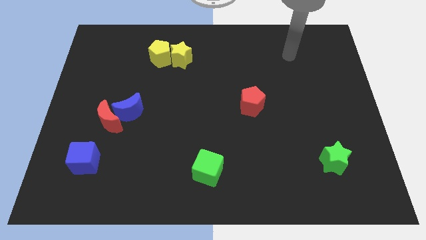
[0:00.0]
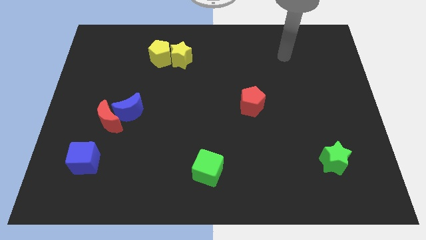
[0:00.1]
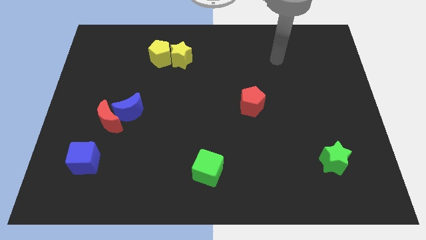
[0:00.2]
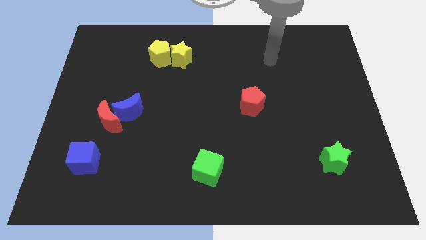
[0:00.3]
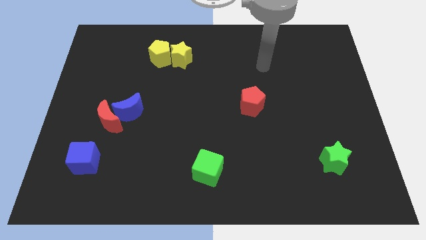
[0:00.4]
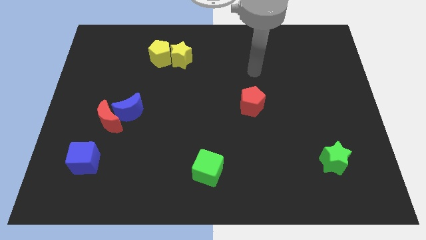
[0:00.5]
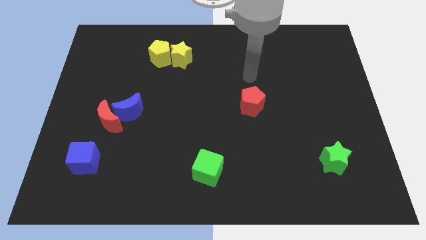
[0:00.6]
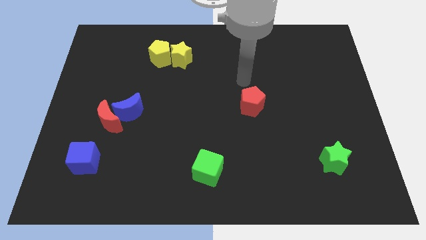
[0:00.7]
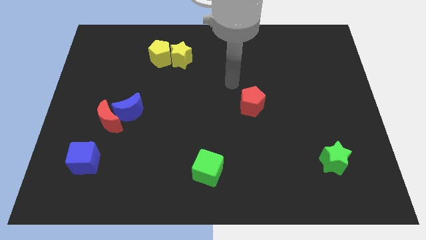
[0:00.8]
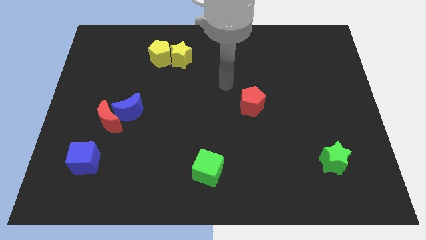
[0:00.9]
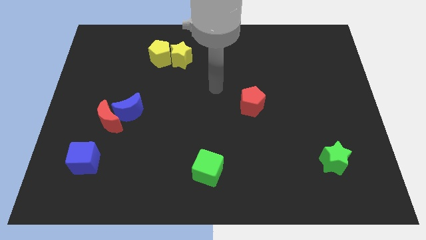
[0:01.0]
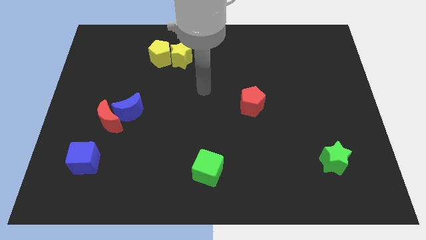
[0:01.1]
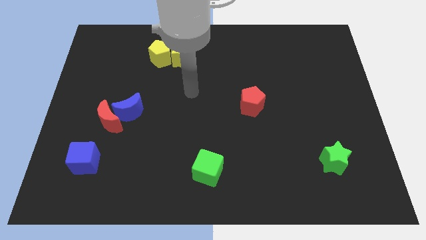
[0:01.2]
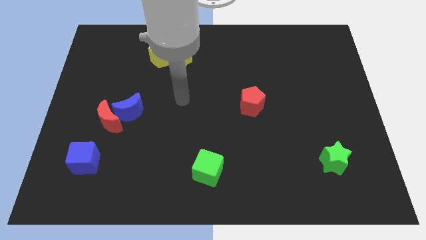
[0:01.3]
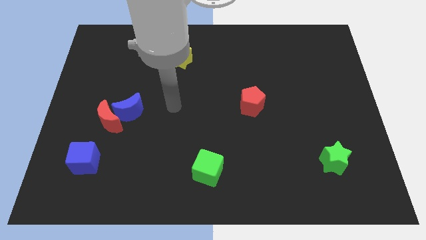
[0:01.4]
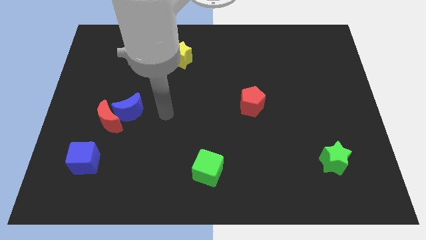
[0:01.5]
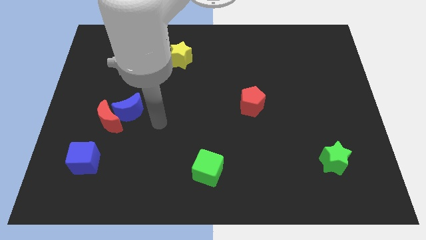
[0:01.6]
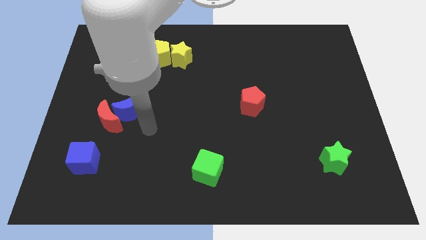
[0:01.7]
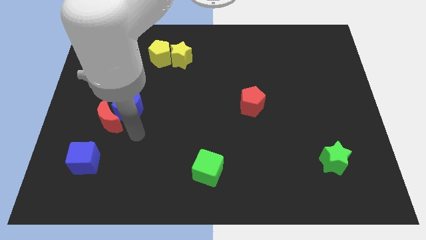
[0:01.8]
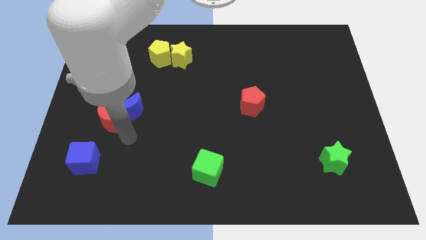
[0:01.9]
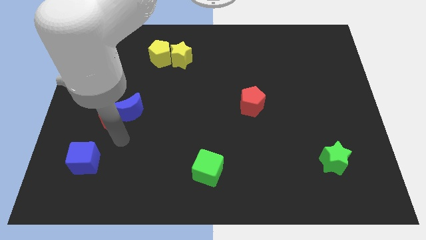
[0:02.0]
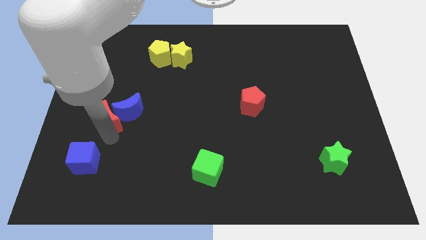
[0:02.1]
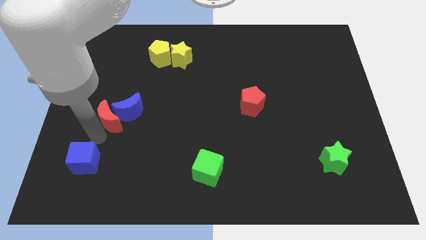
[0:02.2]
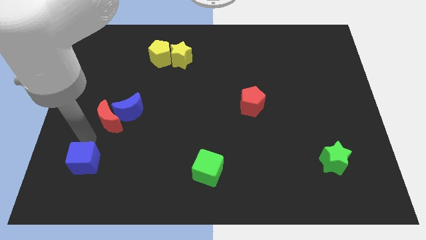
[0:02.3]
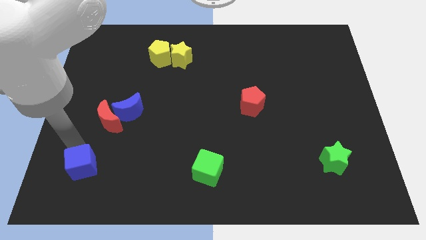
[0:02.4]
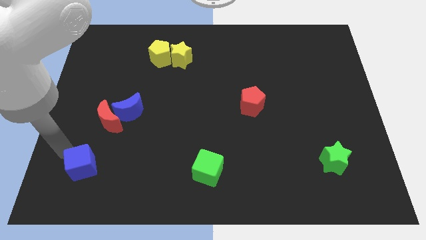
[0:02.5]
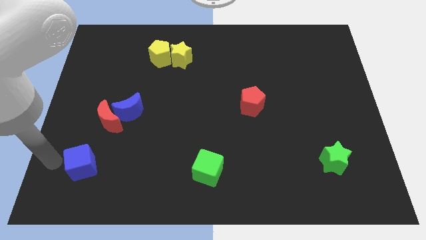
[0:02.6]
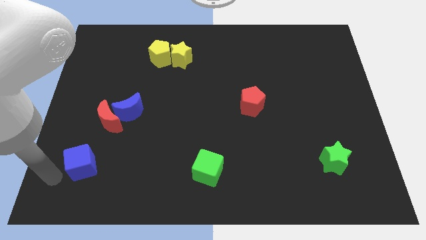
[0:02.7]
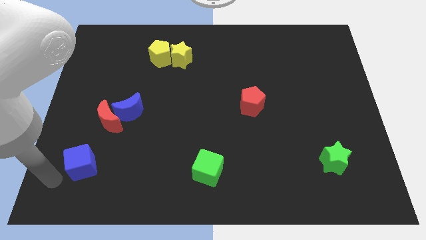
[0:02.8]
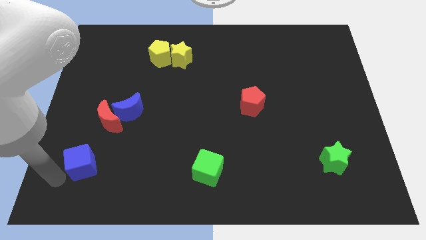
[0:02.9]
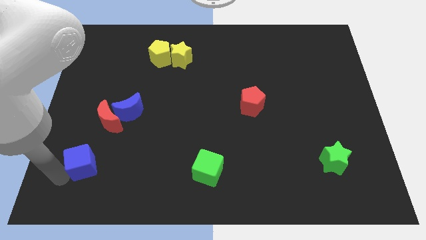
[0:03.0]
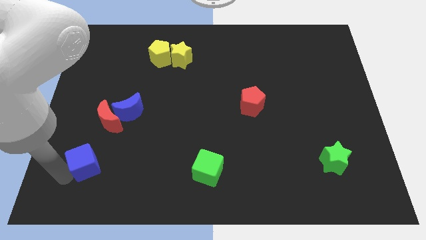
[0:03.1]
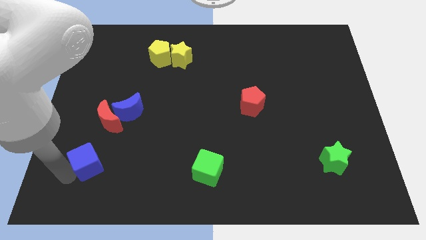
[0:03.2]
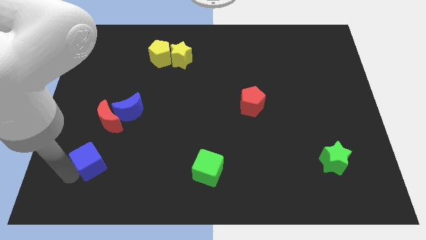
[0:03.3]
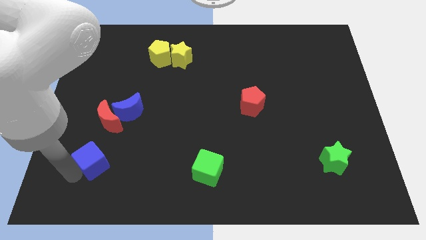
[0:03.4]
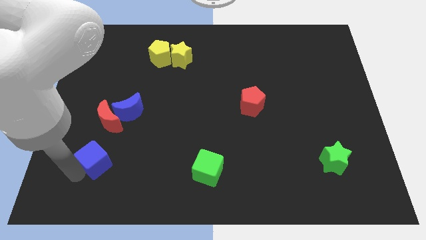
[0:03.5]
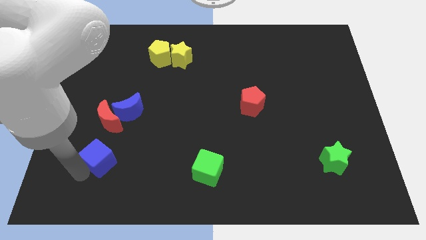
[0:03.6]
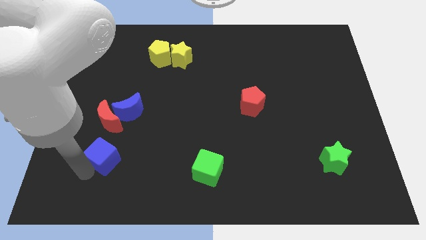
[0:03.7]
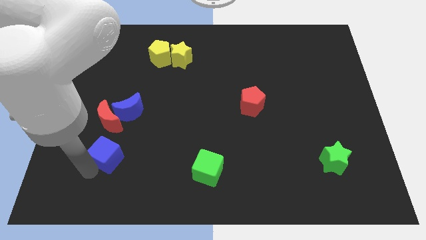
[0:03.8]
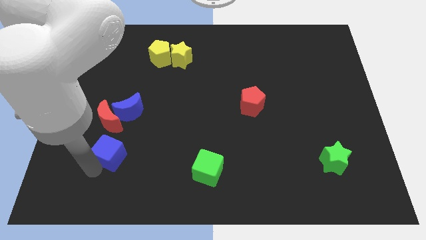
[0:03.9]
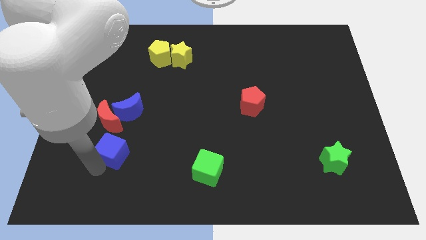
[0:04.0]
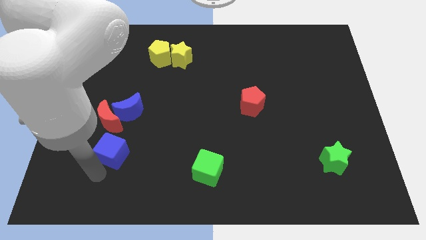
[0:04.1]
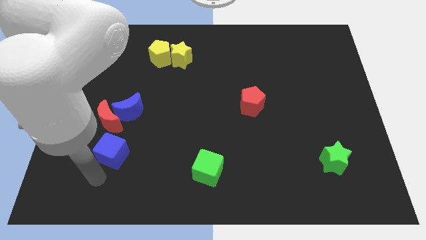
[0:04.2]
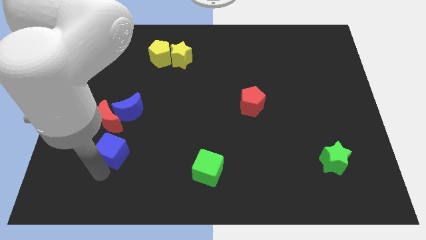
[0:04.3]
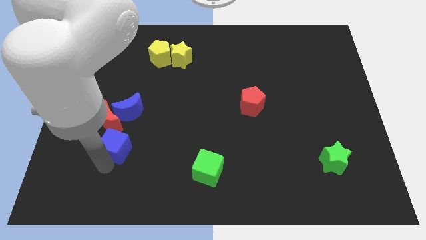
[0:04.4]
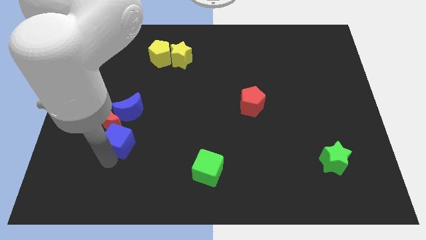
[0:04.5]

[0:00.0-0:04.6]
slightly slide the blue cube upwards and right diagonally

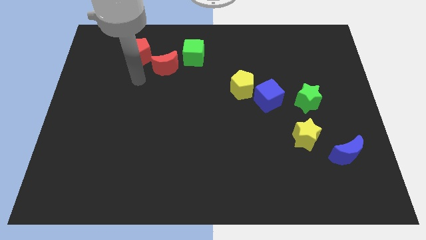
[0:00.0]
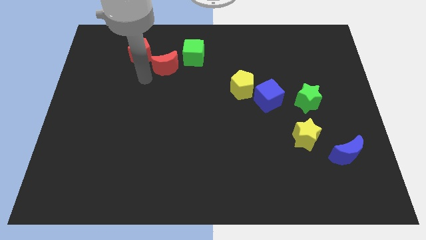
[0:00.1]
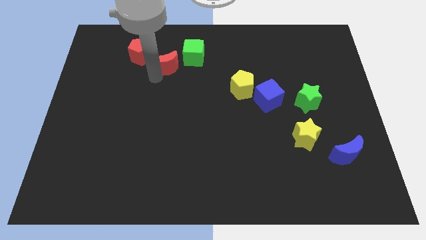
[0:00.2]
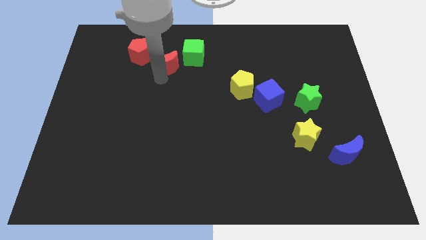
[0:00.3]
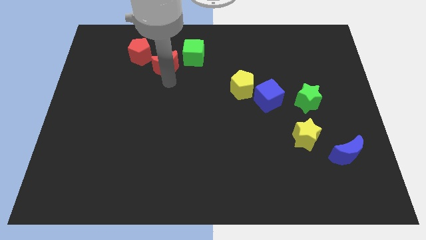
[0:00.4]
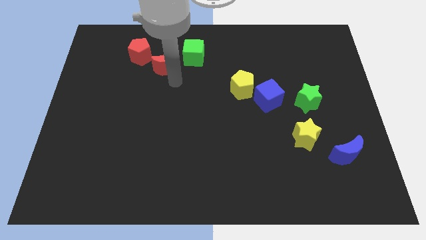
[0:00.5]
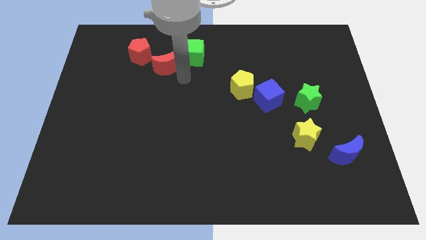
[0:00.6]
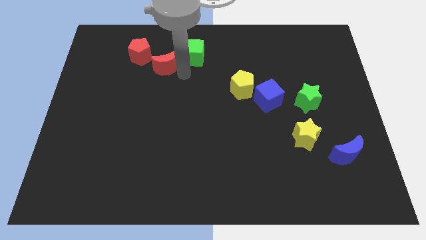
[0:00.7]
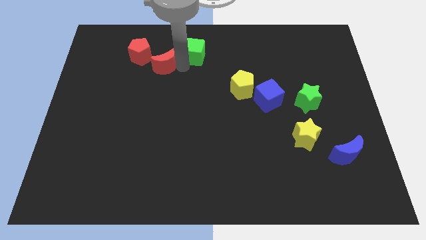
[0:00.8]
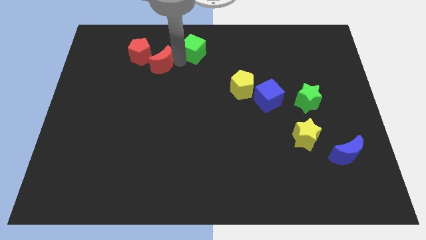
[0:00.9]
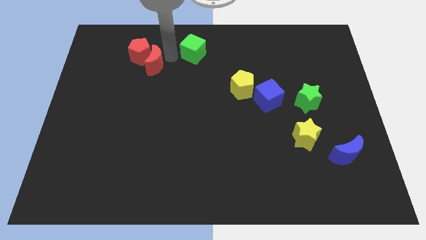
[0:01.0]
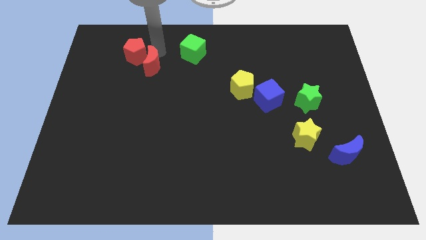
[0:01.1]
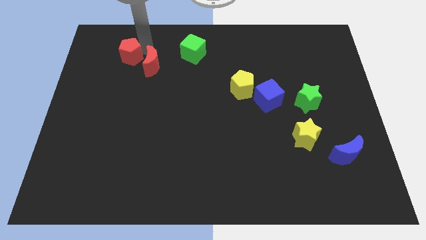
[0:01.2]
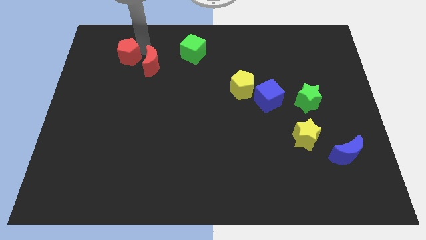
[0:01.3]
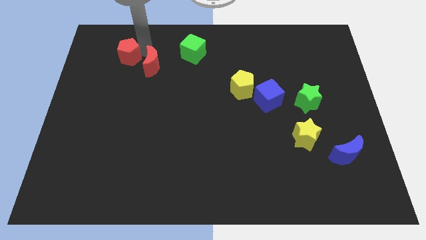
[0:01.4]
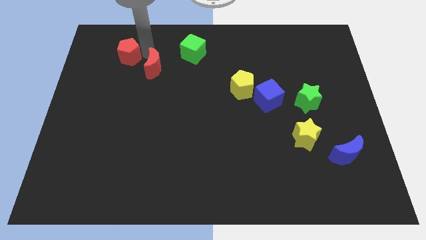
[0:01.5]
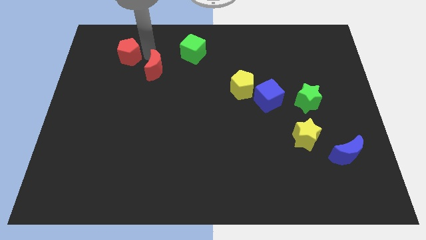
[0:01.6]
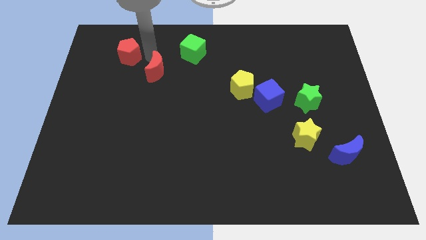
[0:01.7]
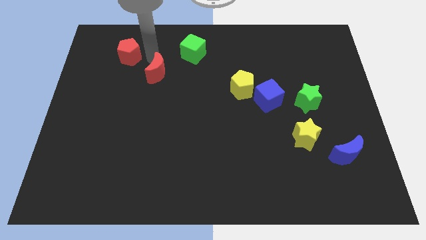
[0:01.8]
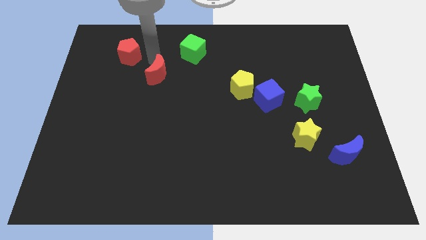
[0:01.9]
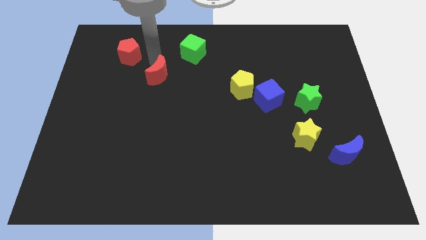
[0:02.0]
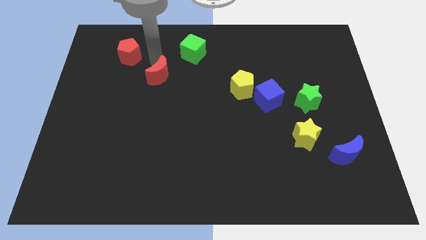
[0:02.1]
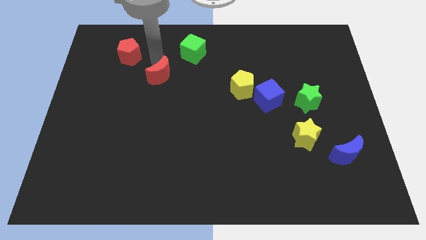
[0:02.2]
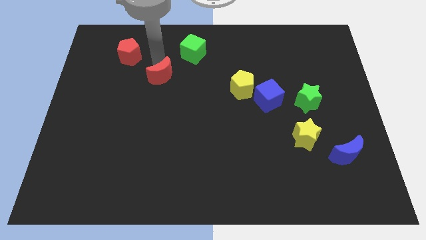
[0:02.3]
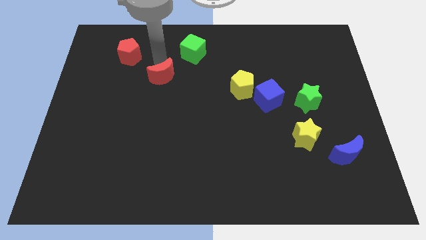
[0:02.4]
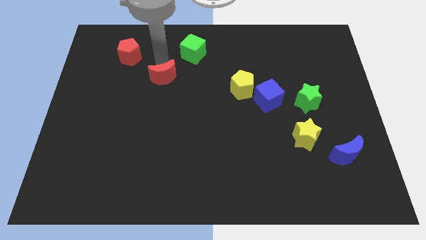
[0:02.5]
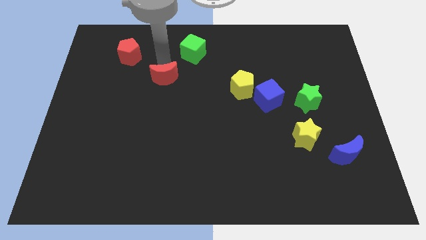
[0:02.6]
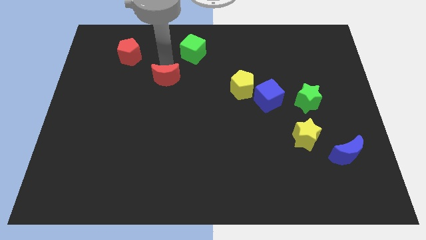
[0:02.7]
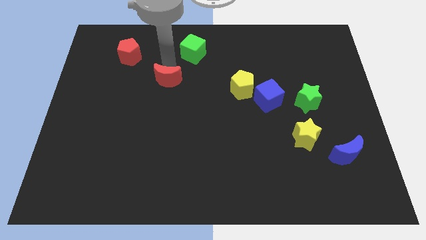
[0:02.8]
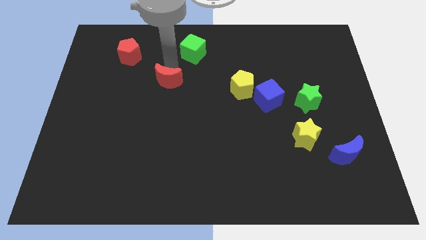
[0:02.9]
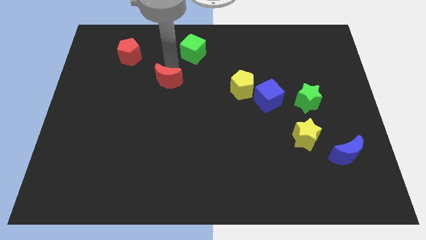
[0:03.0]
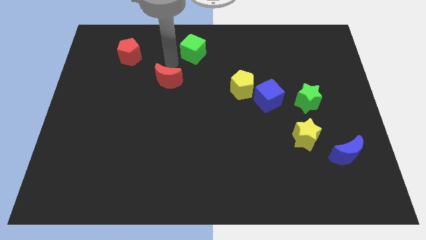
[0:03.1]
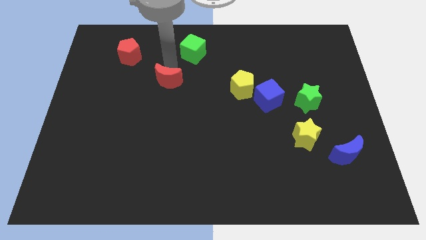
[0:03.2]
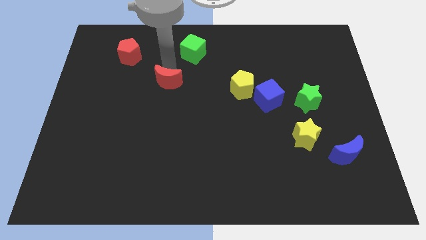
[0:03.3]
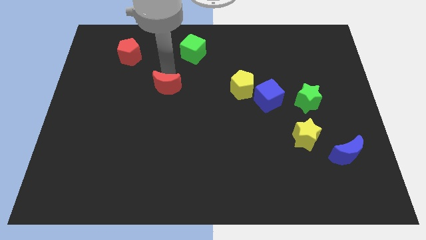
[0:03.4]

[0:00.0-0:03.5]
push the red moon down a little

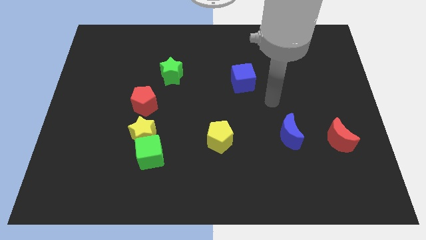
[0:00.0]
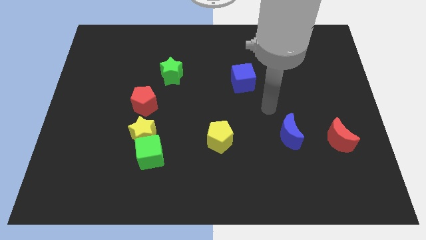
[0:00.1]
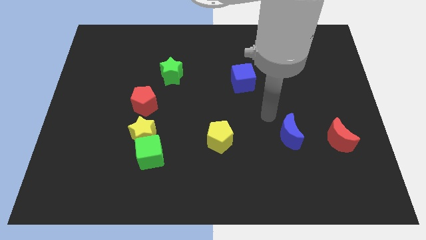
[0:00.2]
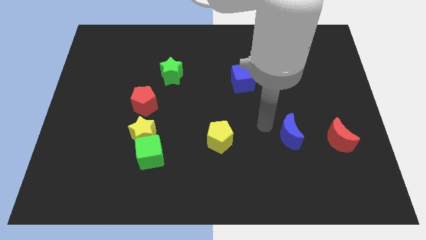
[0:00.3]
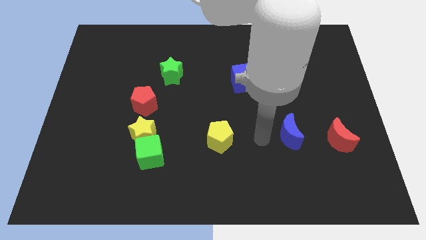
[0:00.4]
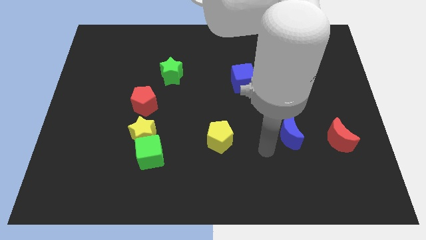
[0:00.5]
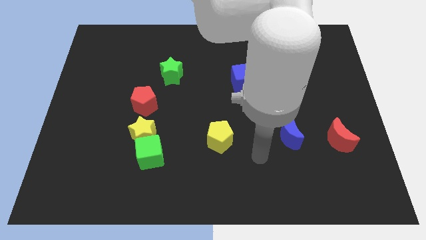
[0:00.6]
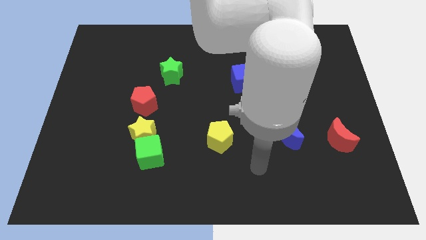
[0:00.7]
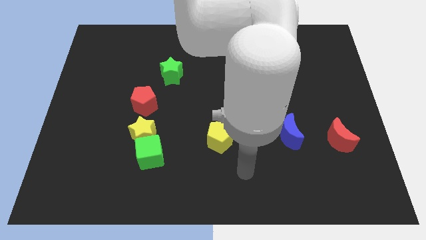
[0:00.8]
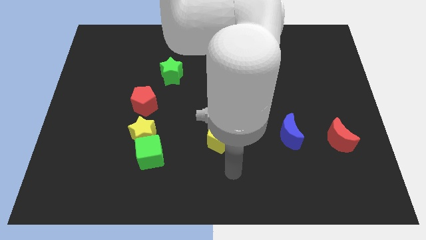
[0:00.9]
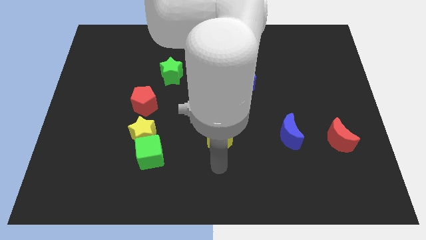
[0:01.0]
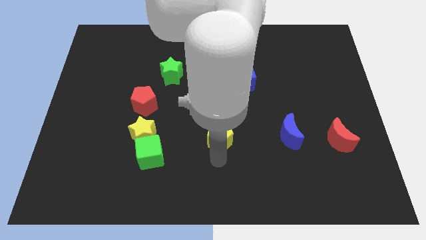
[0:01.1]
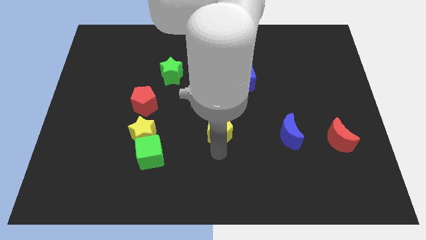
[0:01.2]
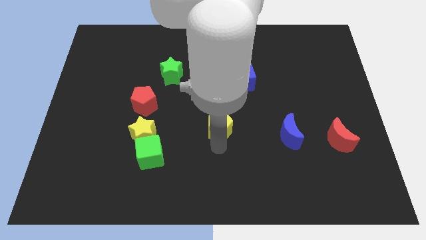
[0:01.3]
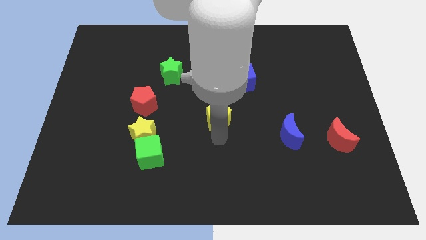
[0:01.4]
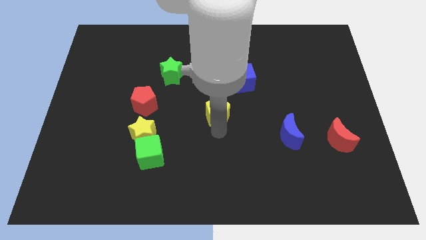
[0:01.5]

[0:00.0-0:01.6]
move the yellow pentagon up a bit
